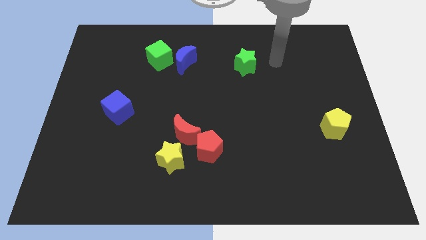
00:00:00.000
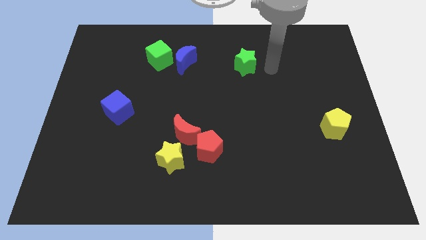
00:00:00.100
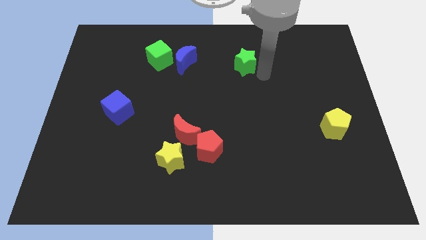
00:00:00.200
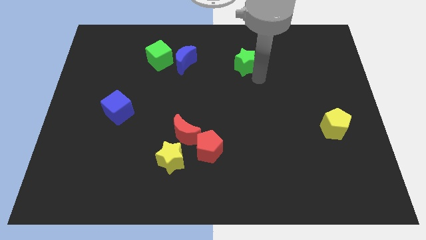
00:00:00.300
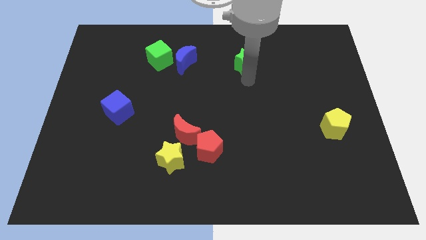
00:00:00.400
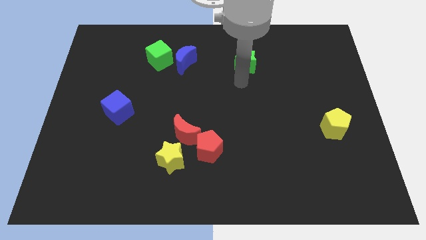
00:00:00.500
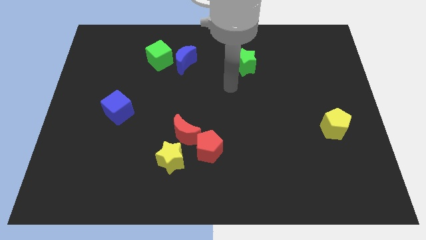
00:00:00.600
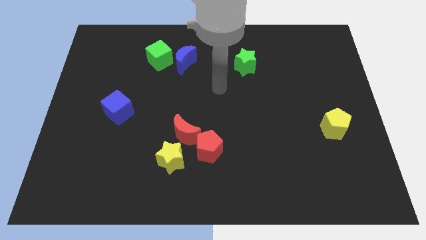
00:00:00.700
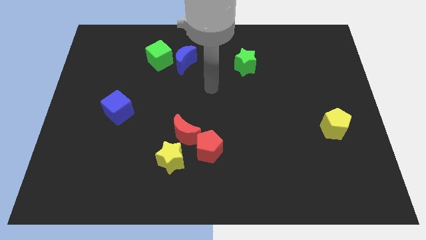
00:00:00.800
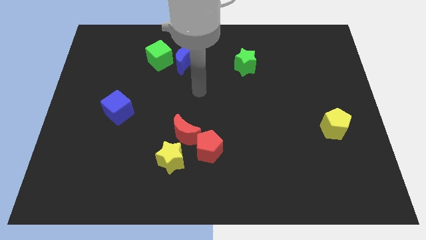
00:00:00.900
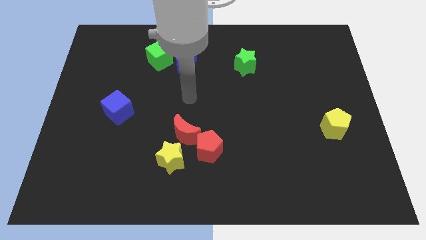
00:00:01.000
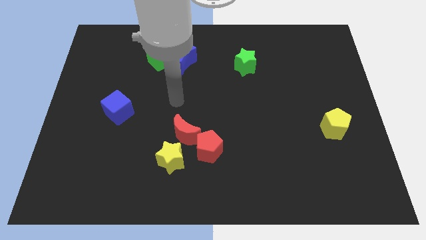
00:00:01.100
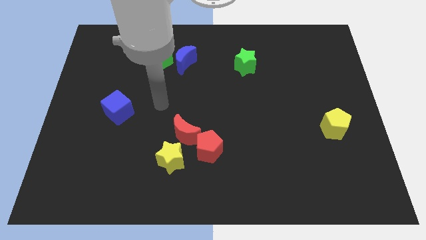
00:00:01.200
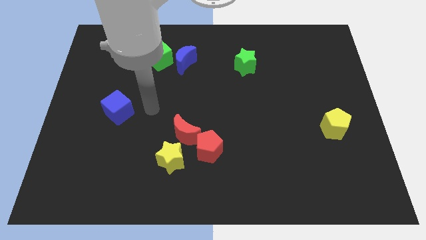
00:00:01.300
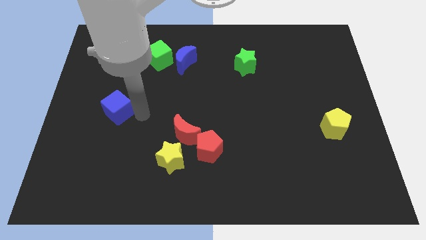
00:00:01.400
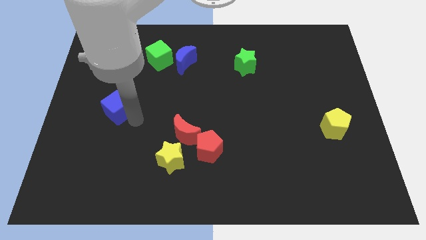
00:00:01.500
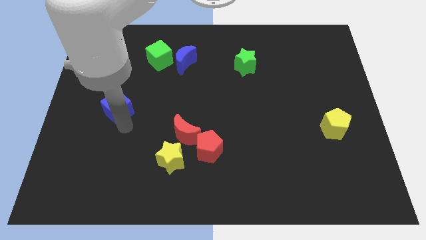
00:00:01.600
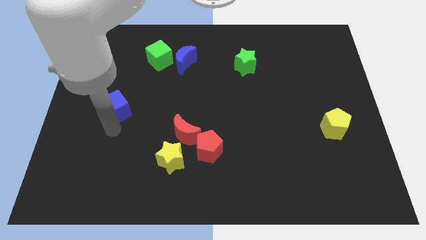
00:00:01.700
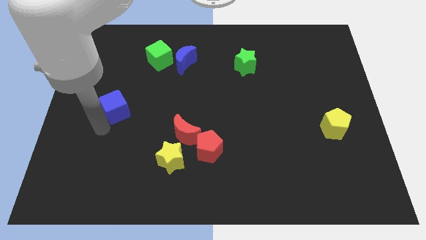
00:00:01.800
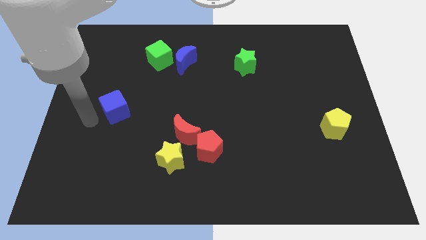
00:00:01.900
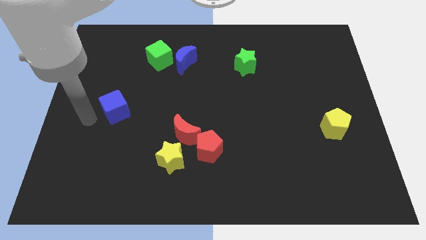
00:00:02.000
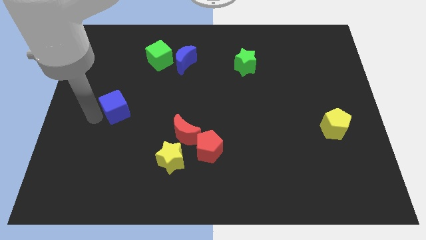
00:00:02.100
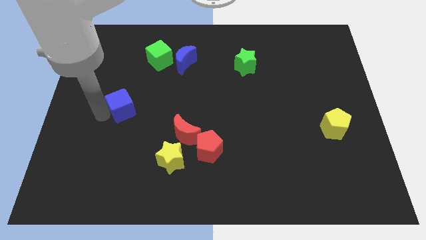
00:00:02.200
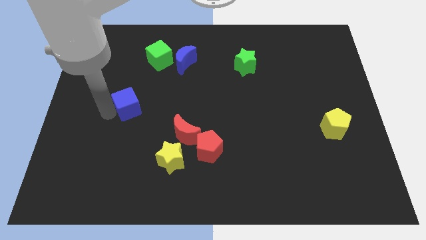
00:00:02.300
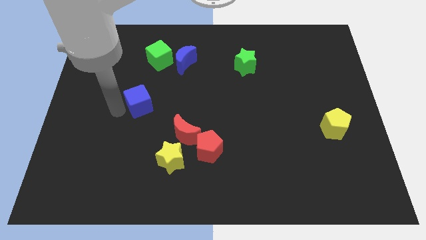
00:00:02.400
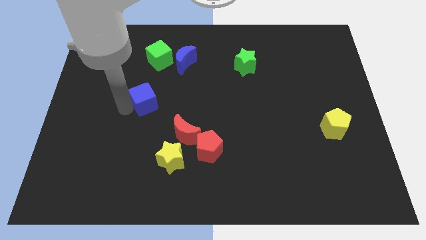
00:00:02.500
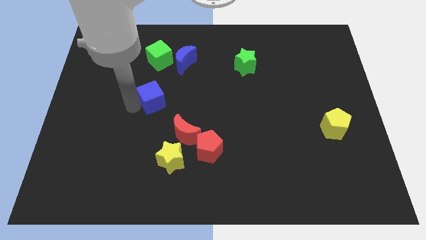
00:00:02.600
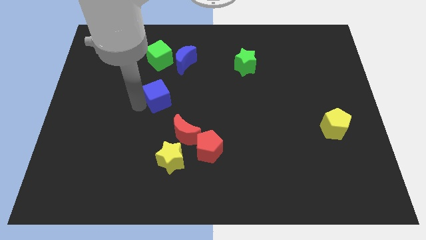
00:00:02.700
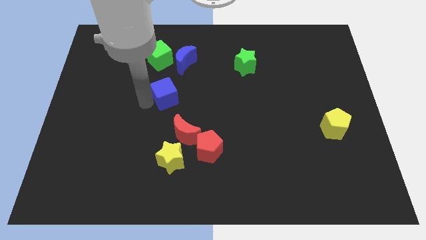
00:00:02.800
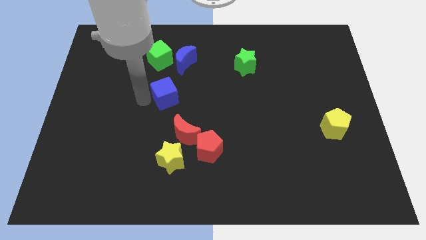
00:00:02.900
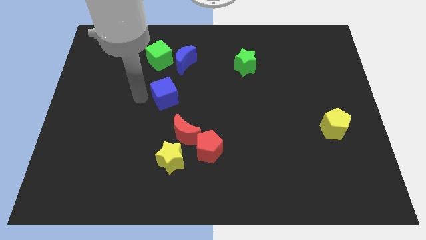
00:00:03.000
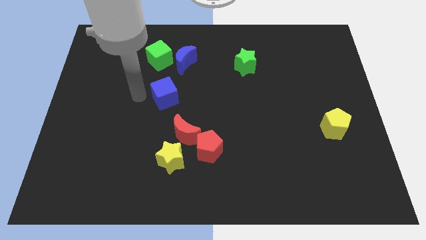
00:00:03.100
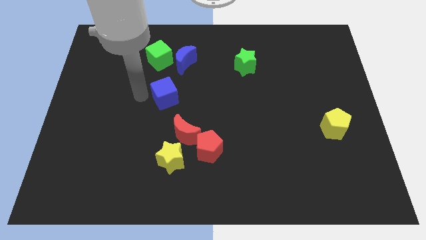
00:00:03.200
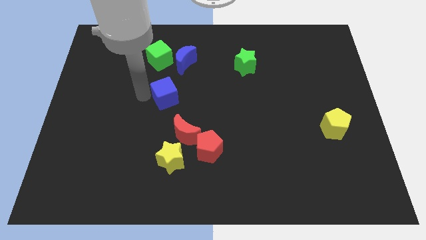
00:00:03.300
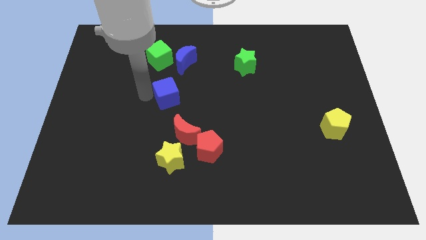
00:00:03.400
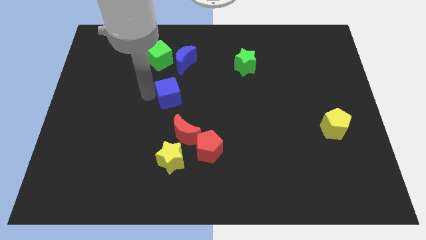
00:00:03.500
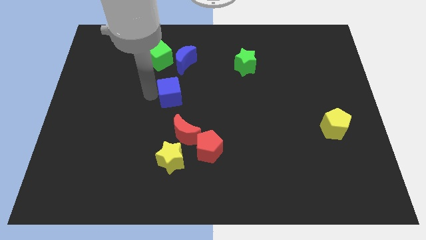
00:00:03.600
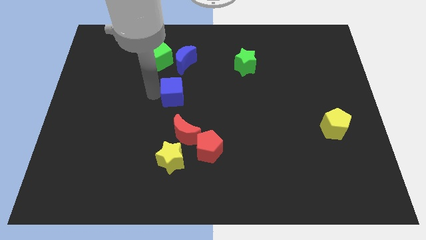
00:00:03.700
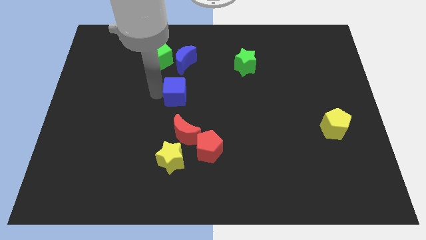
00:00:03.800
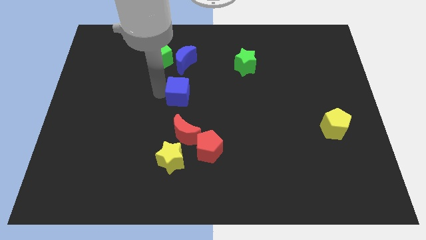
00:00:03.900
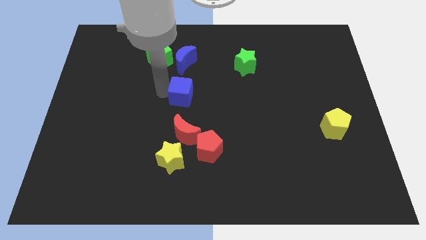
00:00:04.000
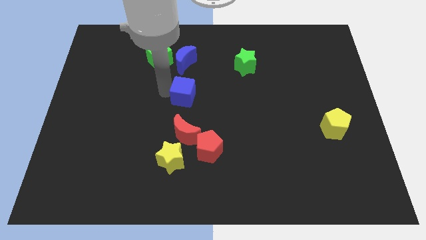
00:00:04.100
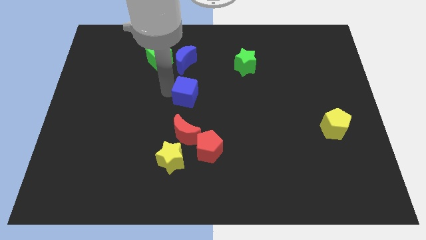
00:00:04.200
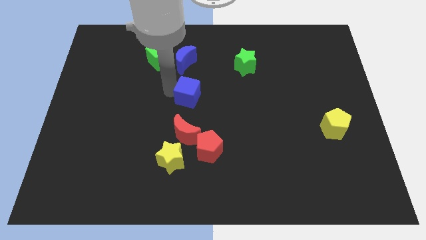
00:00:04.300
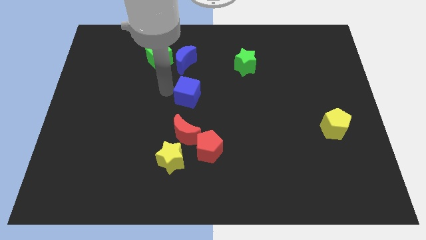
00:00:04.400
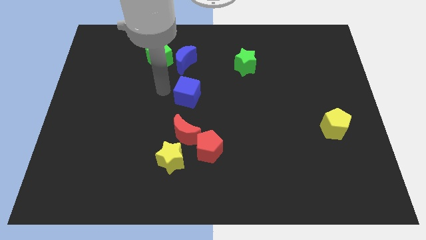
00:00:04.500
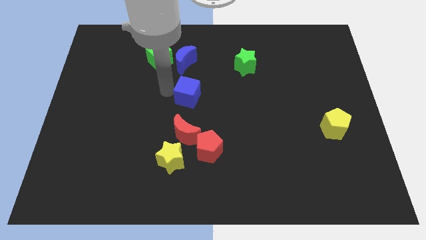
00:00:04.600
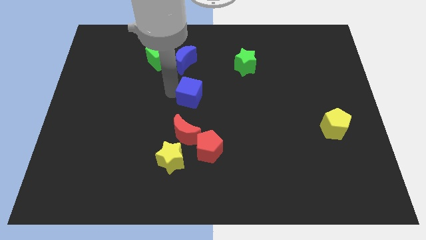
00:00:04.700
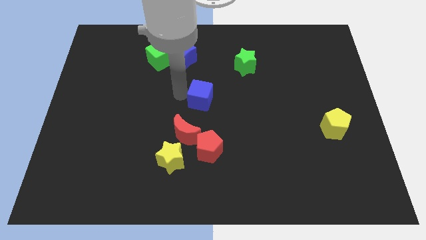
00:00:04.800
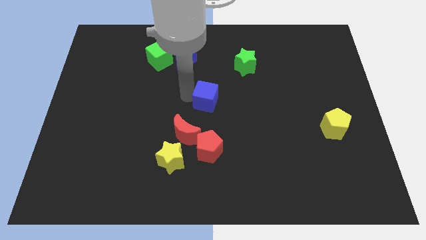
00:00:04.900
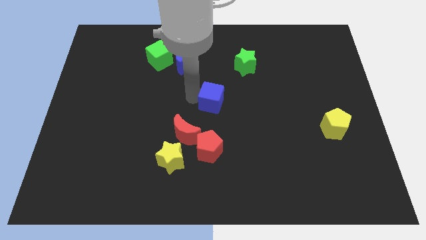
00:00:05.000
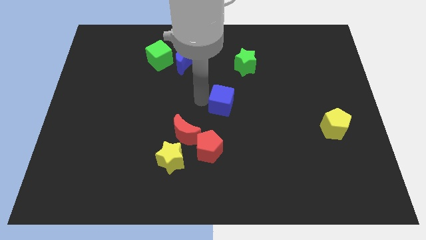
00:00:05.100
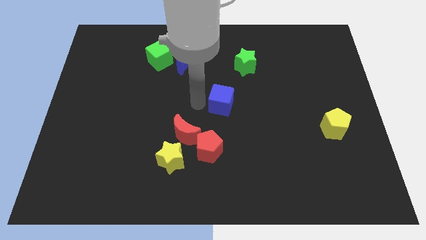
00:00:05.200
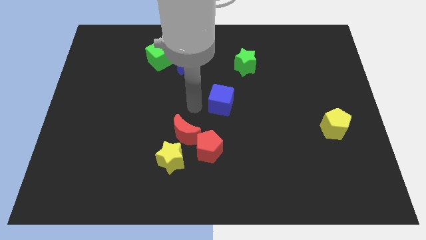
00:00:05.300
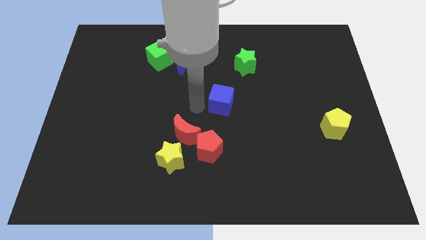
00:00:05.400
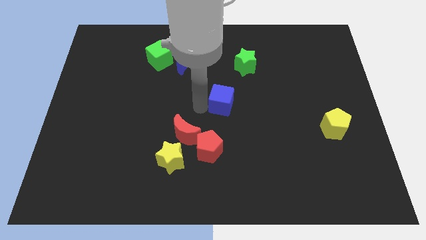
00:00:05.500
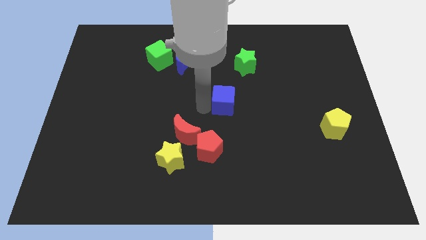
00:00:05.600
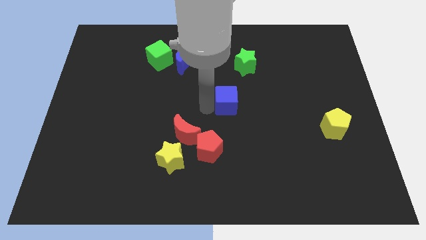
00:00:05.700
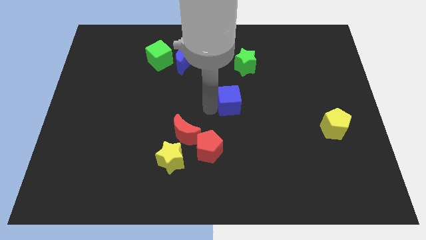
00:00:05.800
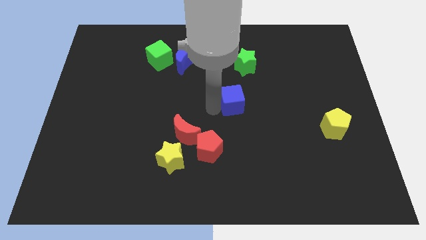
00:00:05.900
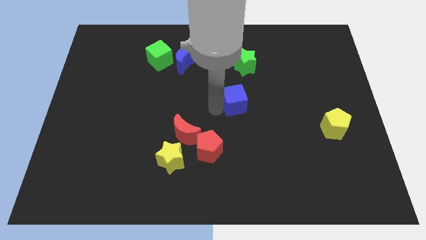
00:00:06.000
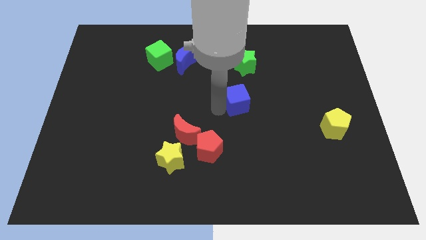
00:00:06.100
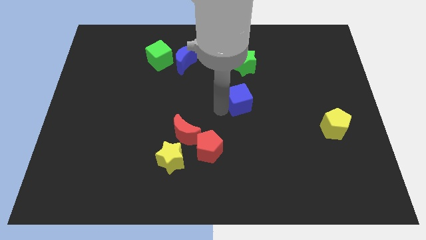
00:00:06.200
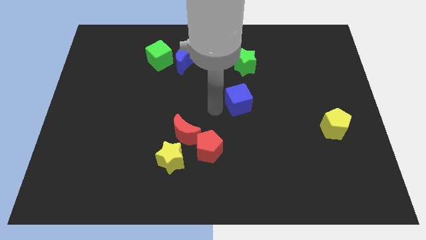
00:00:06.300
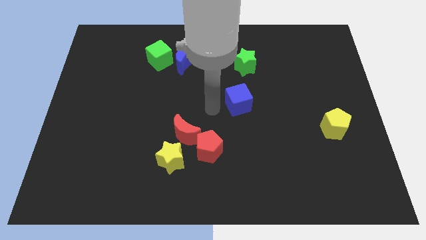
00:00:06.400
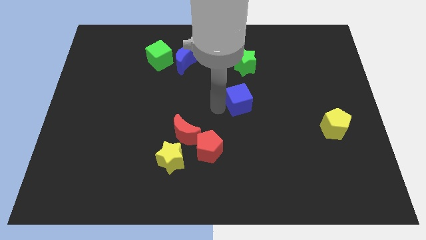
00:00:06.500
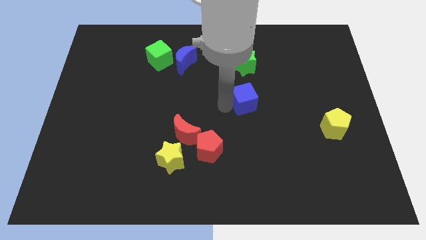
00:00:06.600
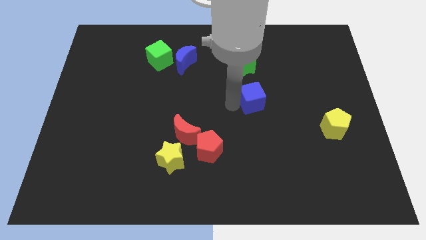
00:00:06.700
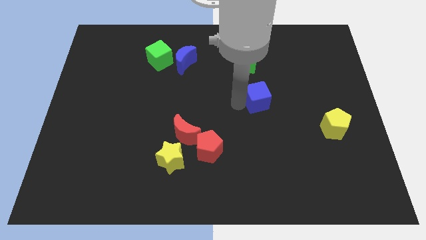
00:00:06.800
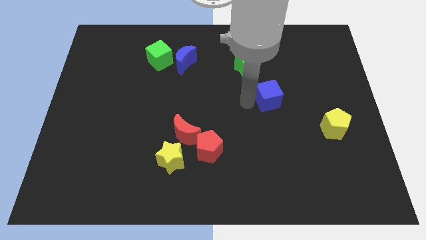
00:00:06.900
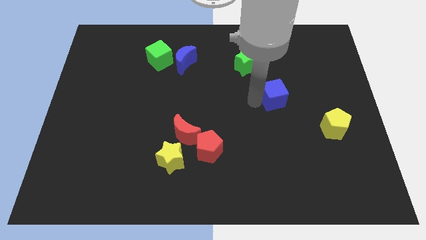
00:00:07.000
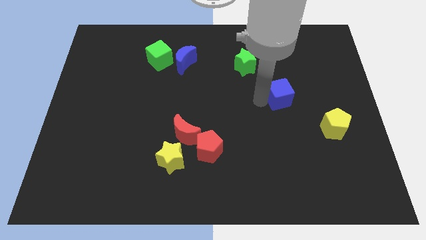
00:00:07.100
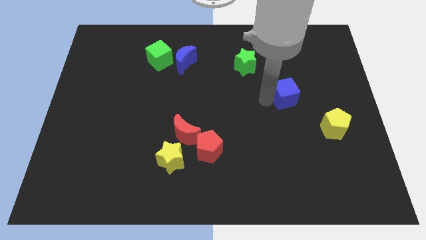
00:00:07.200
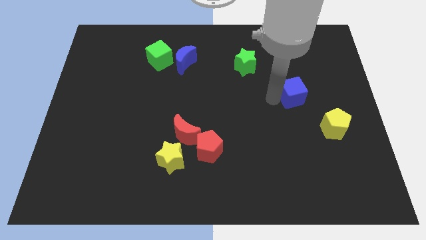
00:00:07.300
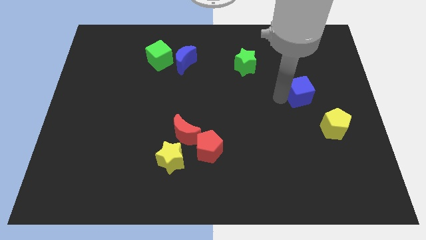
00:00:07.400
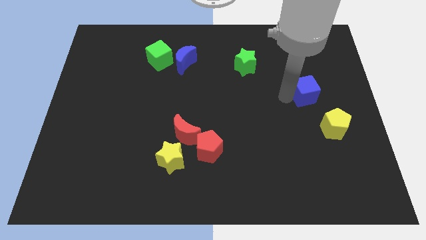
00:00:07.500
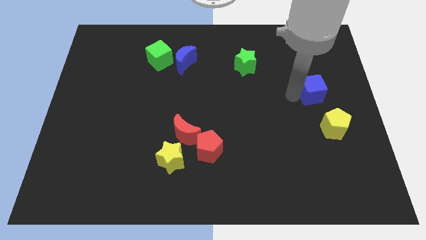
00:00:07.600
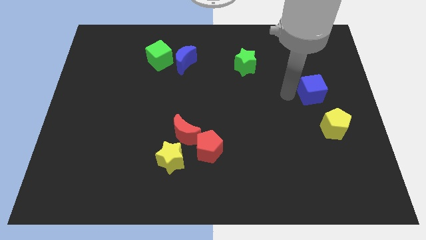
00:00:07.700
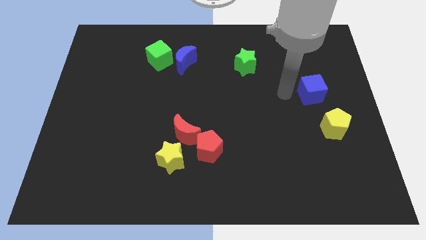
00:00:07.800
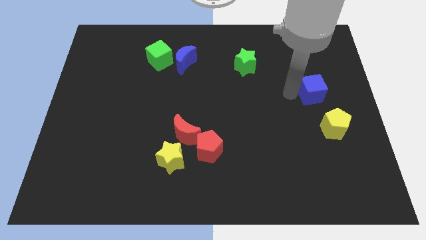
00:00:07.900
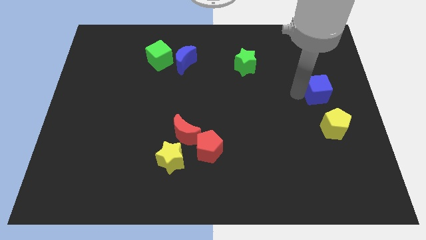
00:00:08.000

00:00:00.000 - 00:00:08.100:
push the blue cube to the right side
